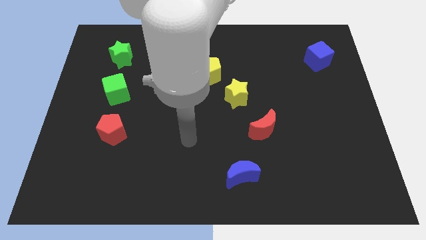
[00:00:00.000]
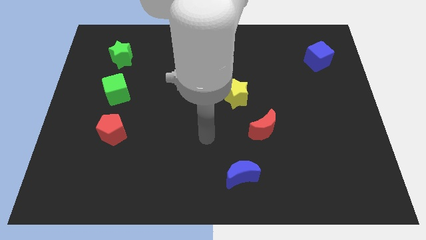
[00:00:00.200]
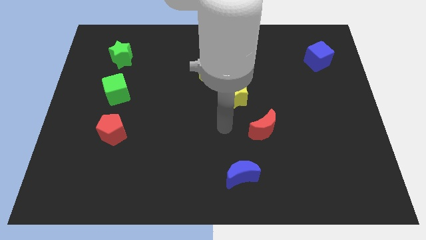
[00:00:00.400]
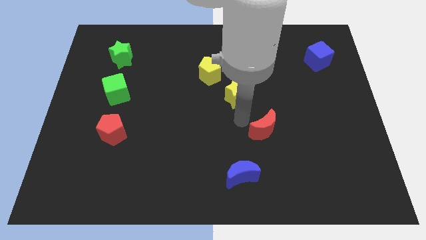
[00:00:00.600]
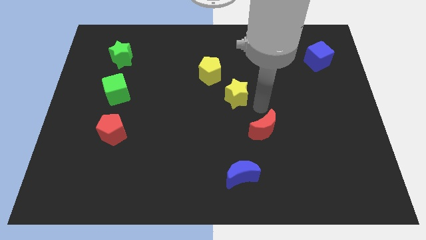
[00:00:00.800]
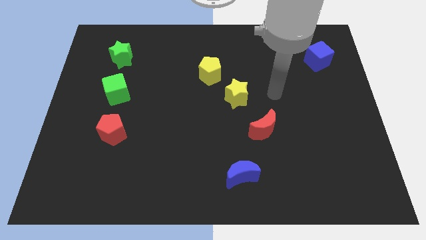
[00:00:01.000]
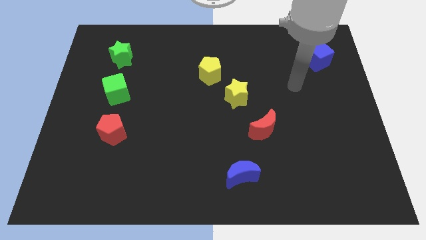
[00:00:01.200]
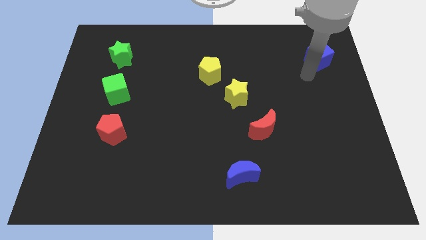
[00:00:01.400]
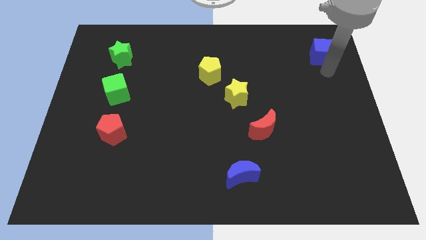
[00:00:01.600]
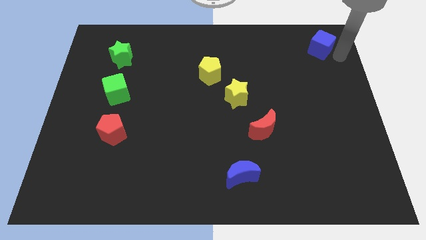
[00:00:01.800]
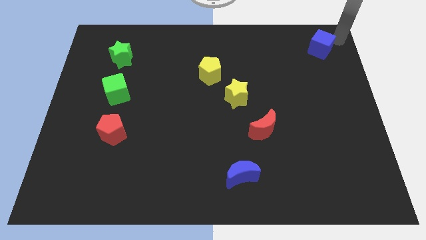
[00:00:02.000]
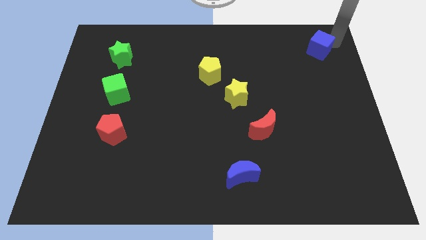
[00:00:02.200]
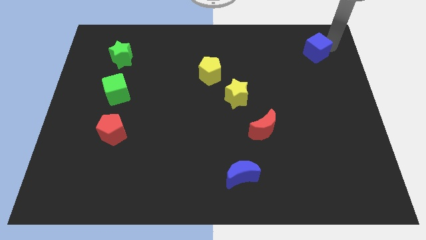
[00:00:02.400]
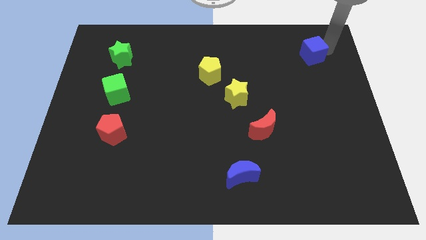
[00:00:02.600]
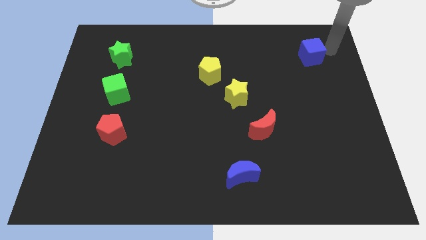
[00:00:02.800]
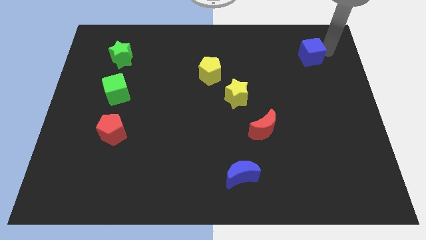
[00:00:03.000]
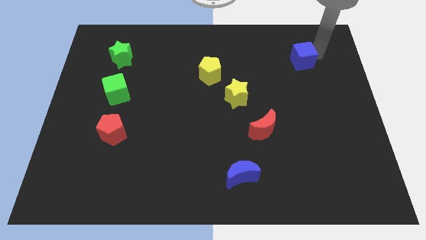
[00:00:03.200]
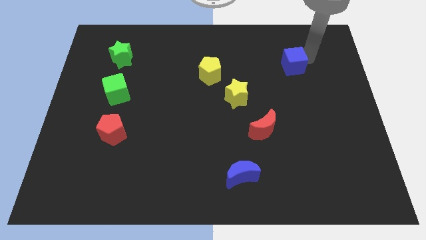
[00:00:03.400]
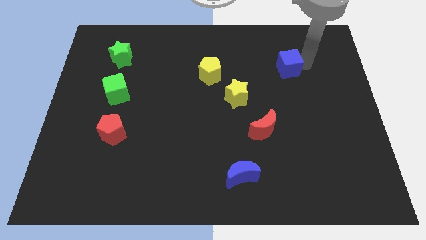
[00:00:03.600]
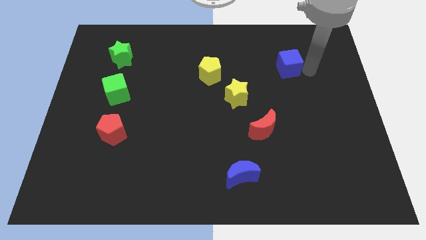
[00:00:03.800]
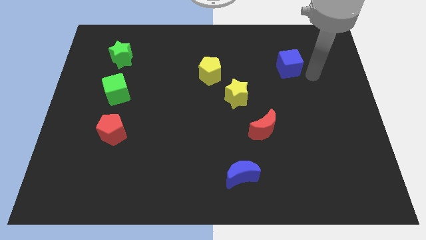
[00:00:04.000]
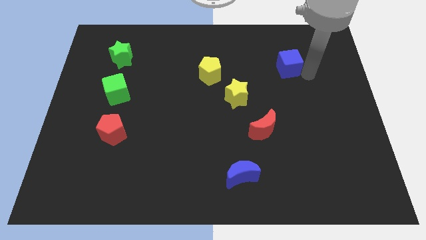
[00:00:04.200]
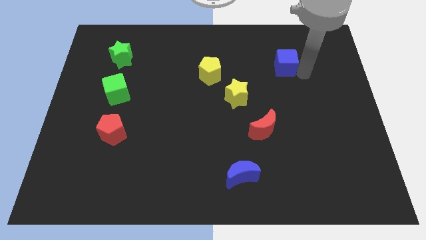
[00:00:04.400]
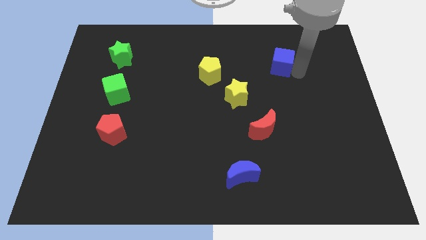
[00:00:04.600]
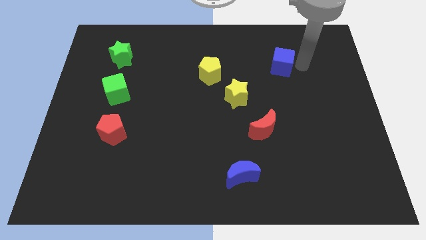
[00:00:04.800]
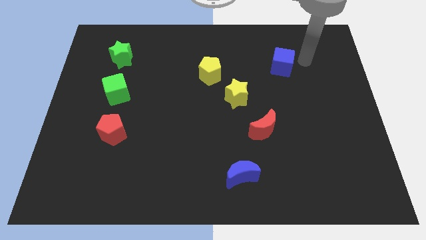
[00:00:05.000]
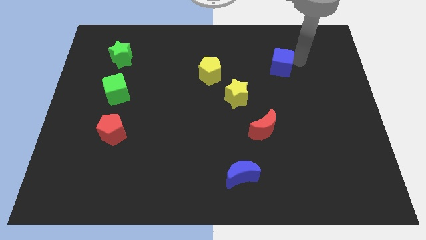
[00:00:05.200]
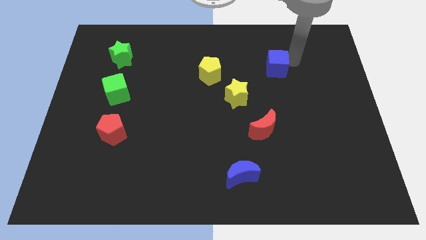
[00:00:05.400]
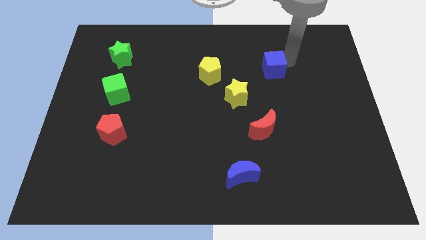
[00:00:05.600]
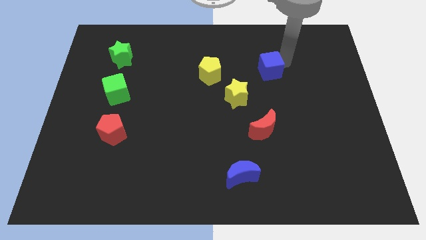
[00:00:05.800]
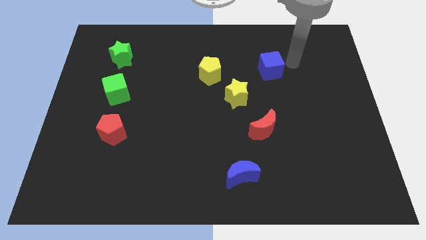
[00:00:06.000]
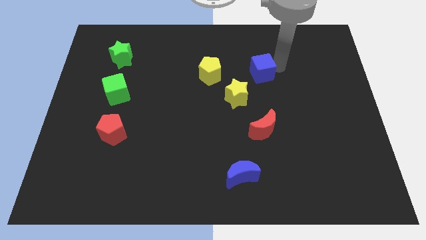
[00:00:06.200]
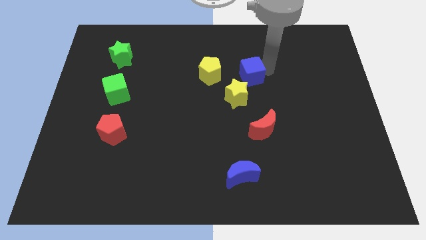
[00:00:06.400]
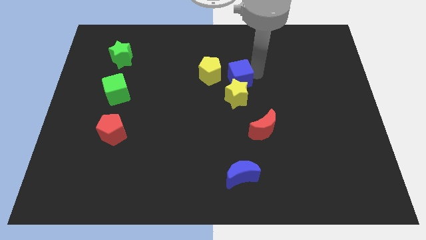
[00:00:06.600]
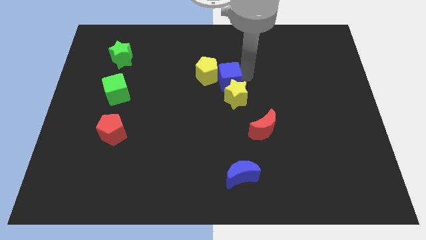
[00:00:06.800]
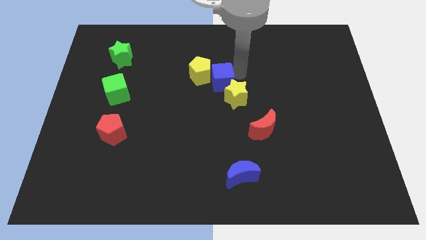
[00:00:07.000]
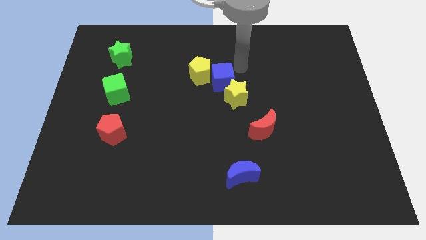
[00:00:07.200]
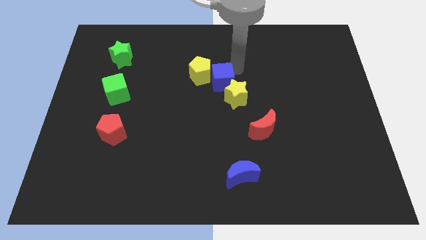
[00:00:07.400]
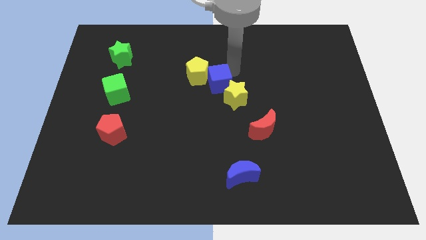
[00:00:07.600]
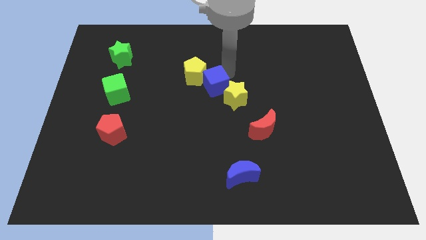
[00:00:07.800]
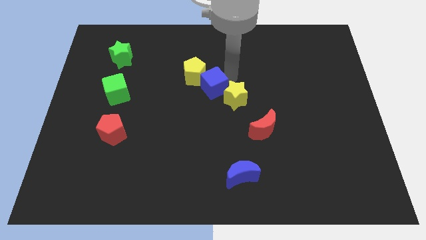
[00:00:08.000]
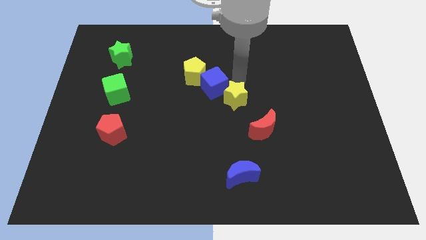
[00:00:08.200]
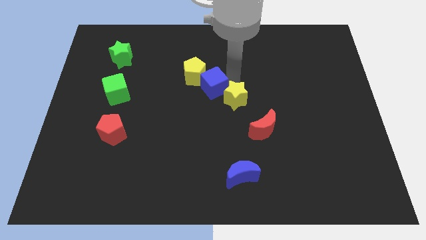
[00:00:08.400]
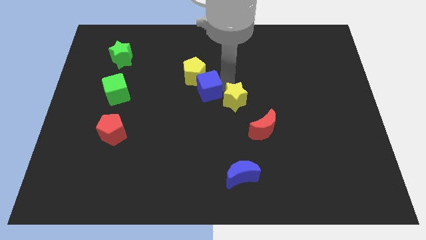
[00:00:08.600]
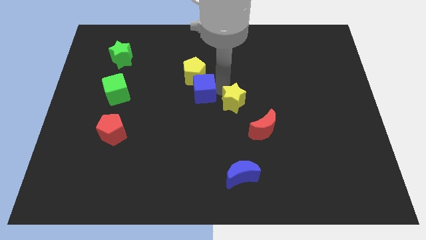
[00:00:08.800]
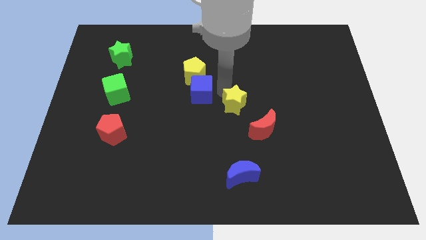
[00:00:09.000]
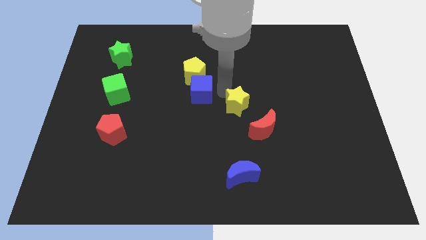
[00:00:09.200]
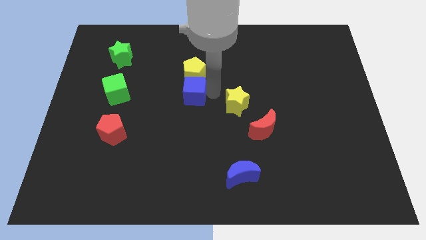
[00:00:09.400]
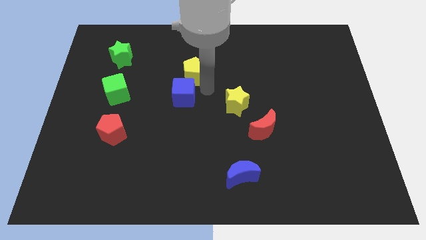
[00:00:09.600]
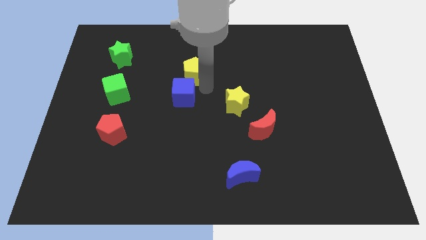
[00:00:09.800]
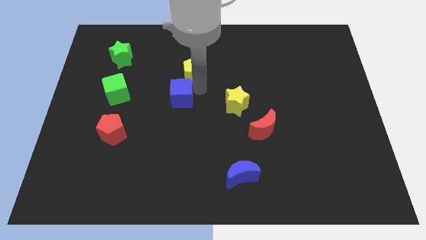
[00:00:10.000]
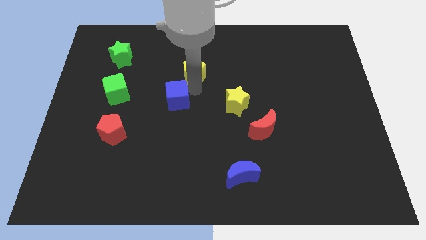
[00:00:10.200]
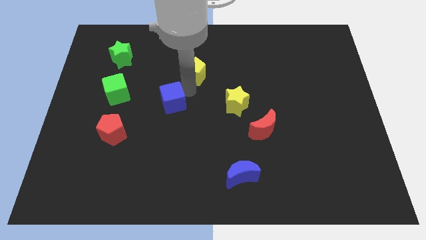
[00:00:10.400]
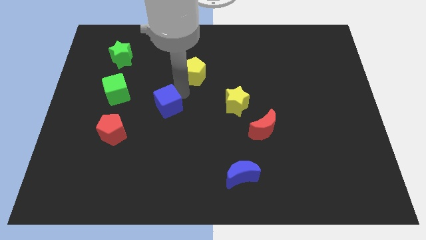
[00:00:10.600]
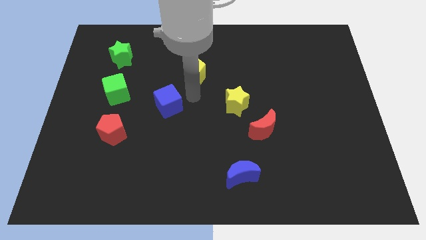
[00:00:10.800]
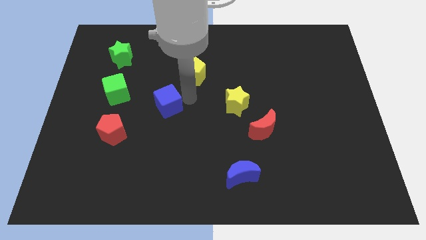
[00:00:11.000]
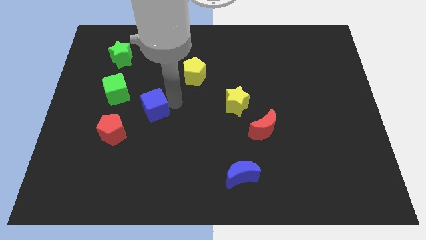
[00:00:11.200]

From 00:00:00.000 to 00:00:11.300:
put the blue cube to the top right side of the red pentagon

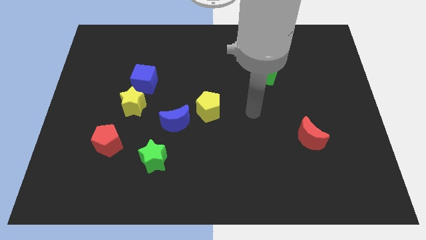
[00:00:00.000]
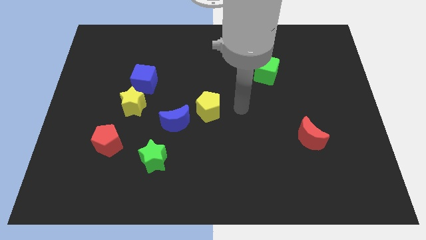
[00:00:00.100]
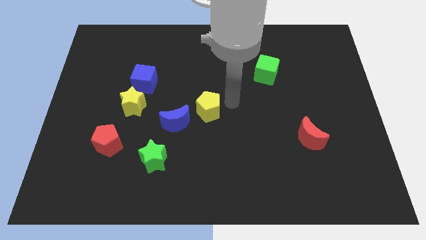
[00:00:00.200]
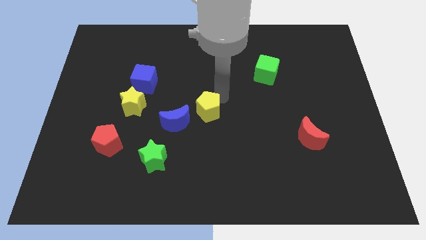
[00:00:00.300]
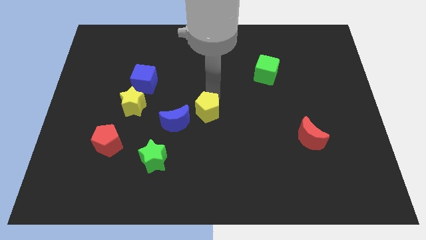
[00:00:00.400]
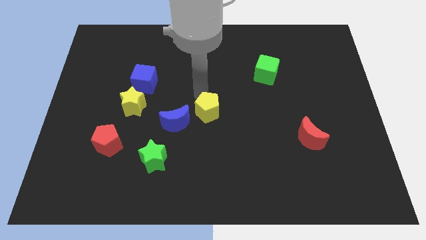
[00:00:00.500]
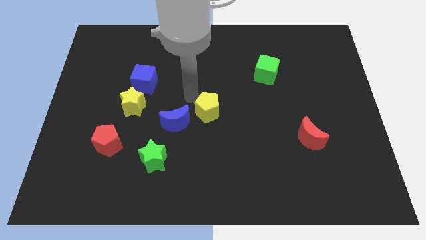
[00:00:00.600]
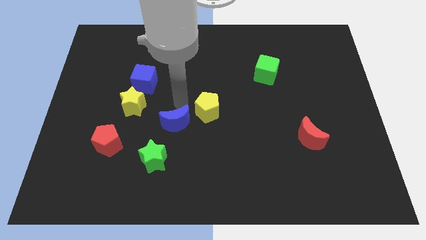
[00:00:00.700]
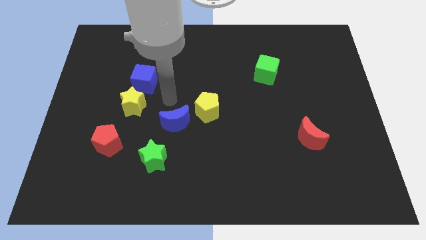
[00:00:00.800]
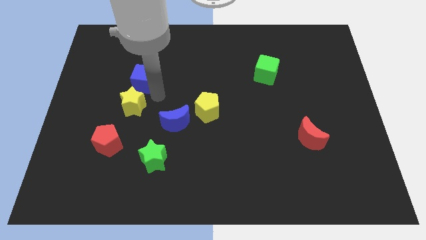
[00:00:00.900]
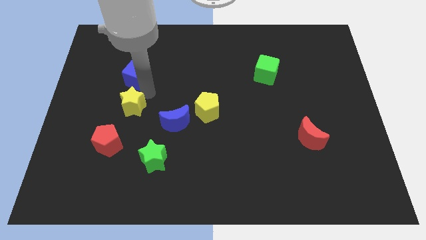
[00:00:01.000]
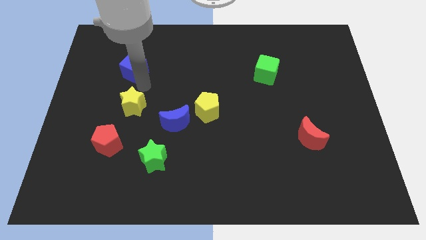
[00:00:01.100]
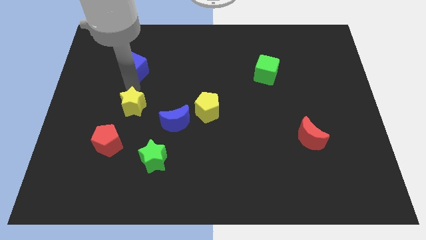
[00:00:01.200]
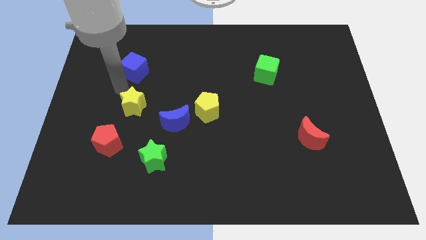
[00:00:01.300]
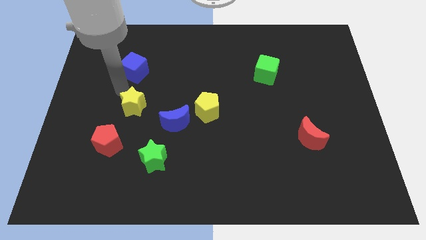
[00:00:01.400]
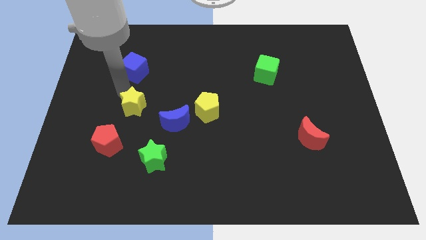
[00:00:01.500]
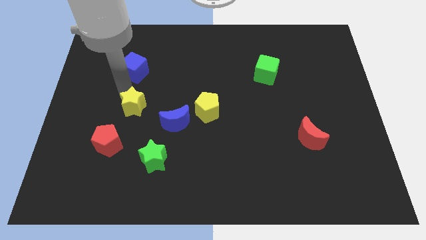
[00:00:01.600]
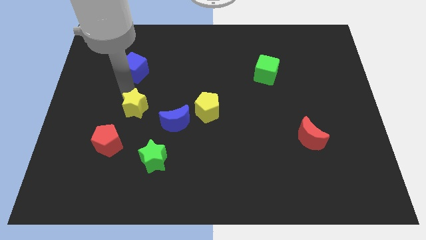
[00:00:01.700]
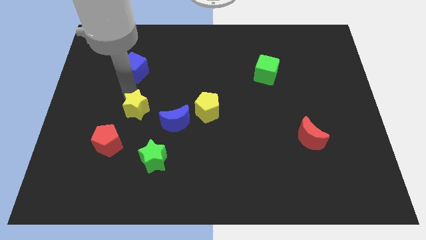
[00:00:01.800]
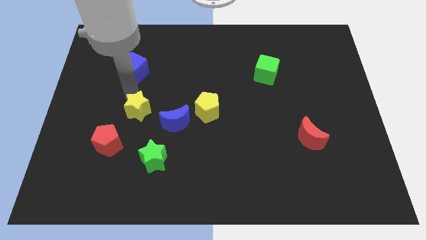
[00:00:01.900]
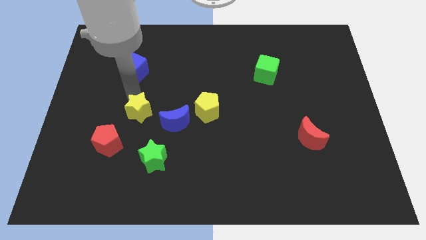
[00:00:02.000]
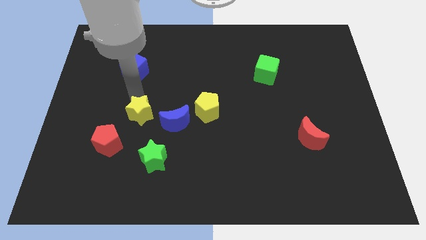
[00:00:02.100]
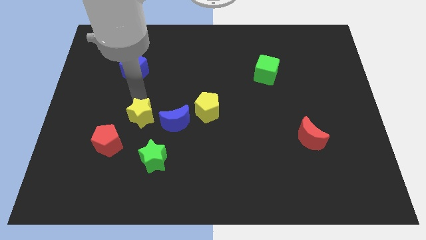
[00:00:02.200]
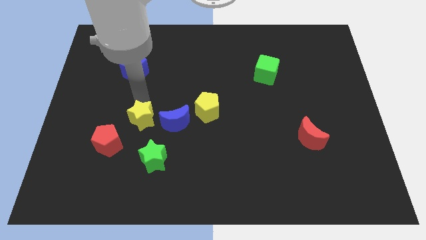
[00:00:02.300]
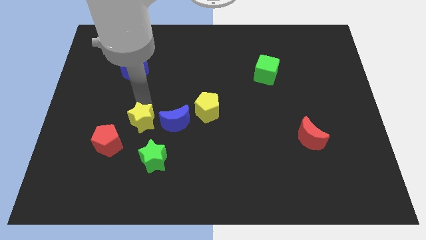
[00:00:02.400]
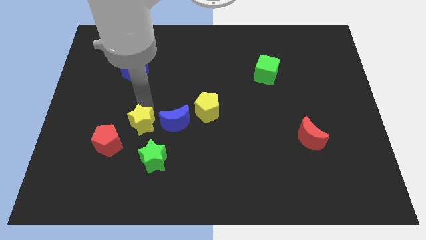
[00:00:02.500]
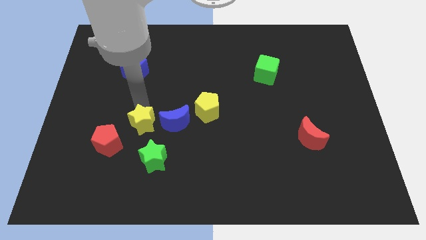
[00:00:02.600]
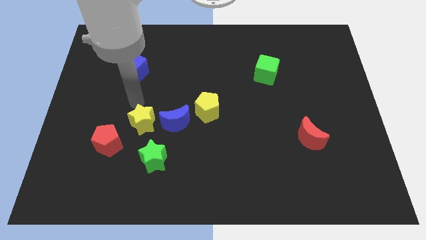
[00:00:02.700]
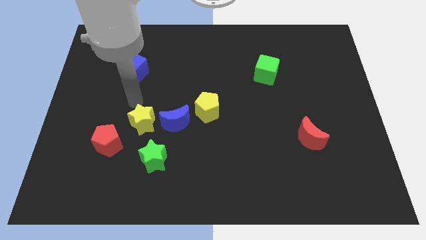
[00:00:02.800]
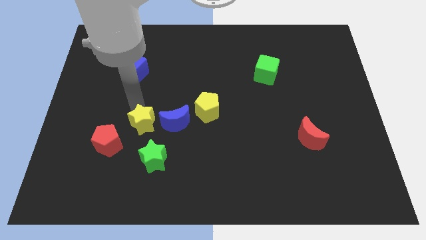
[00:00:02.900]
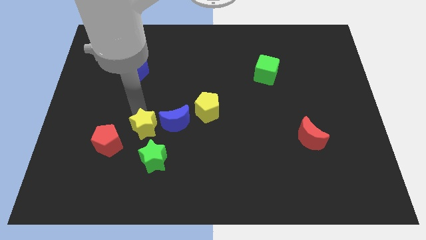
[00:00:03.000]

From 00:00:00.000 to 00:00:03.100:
put the yellow star to the bottom left side of the blue moon
